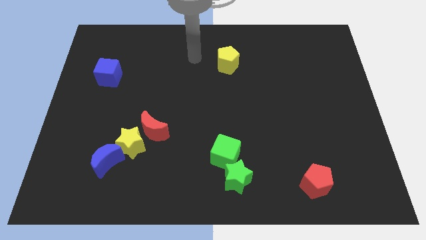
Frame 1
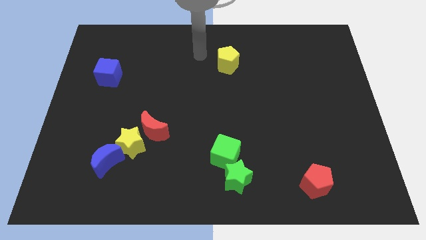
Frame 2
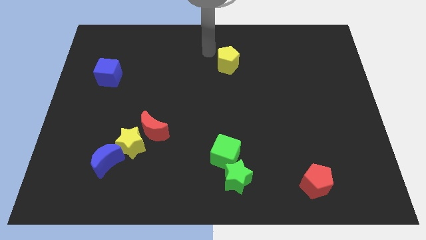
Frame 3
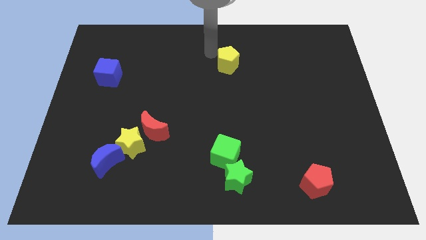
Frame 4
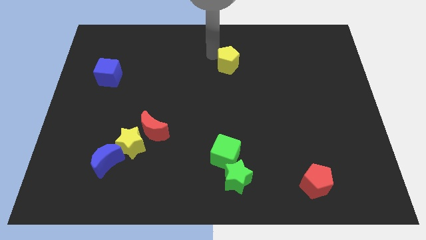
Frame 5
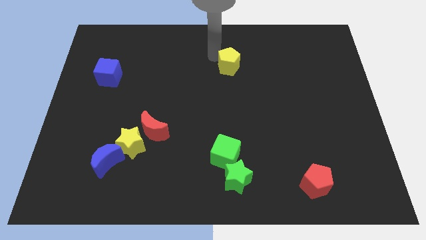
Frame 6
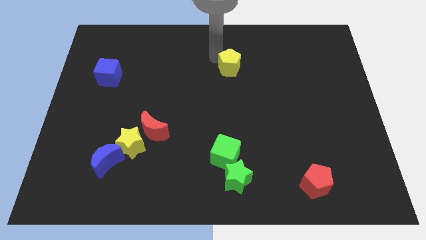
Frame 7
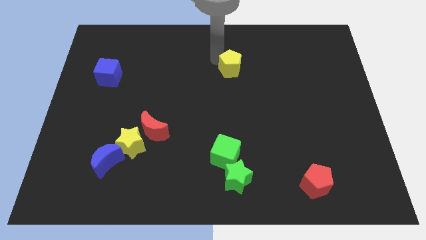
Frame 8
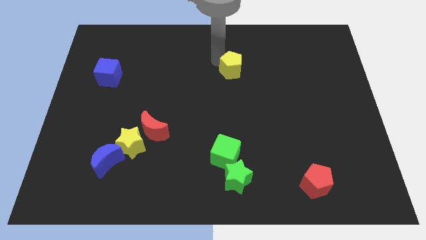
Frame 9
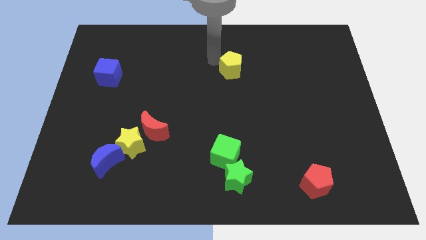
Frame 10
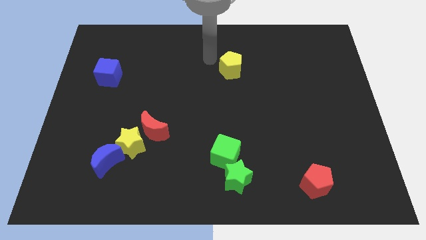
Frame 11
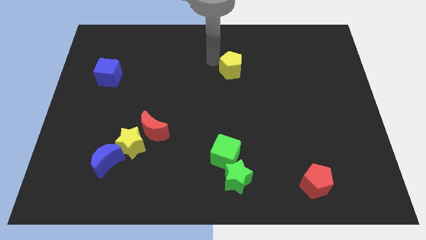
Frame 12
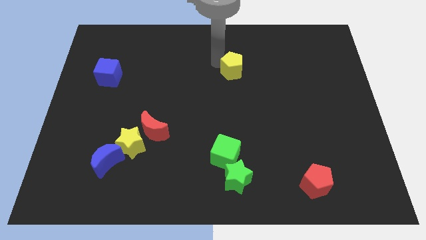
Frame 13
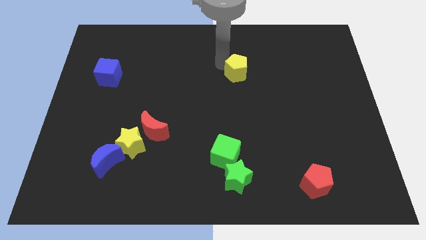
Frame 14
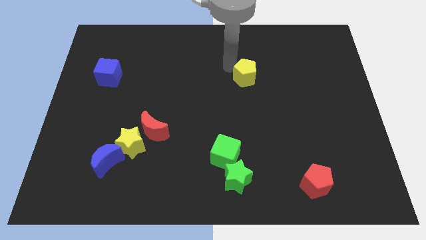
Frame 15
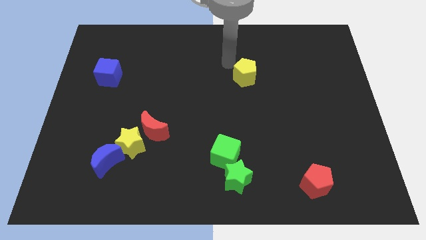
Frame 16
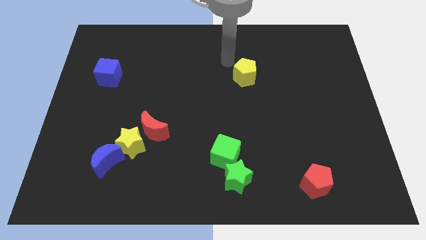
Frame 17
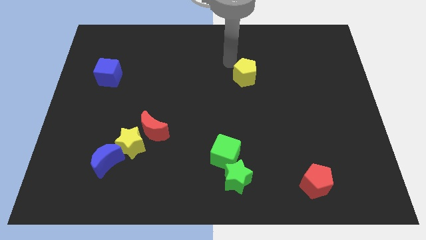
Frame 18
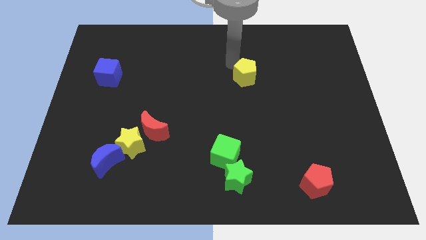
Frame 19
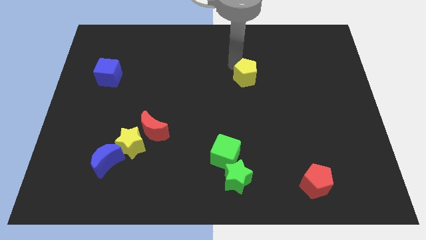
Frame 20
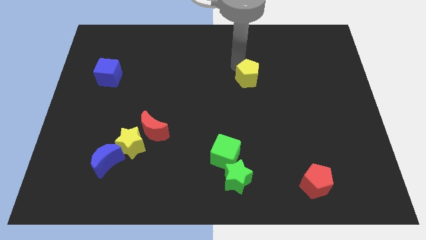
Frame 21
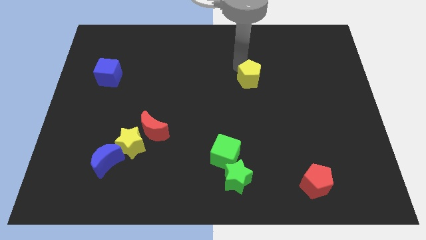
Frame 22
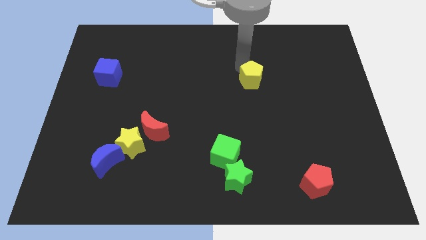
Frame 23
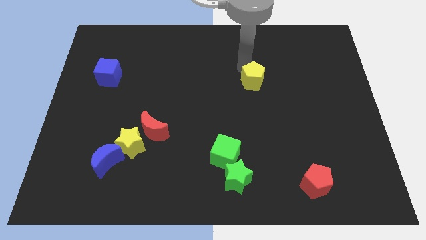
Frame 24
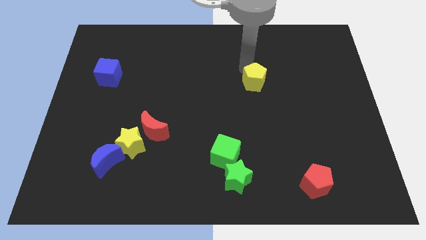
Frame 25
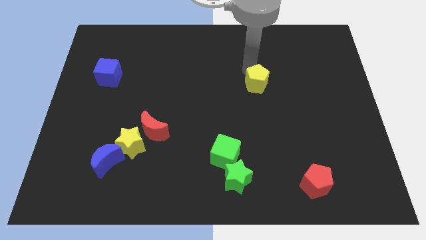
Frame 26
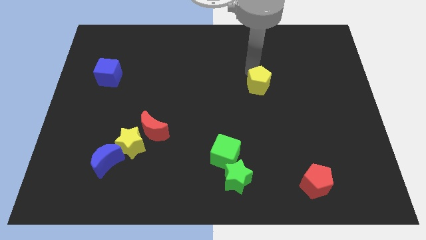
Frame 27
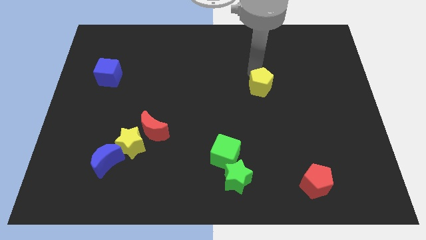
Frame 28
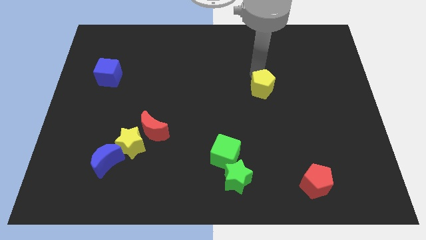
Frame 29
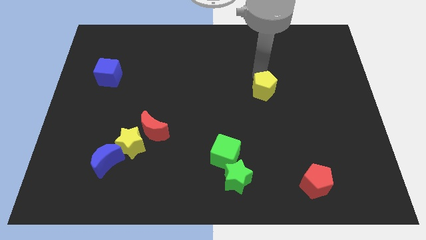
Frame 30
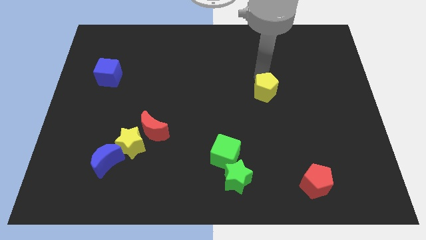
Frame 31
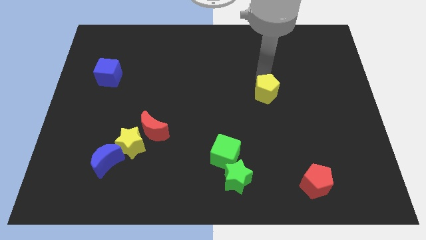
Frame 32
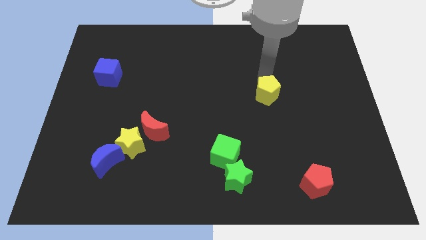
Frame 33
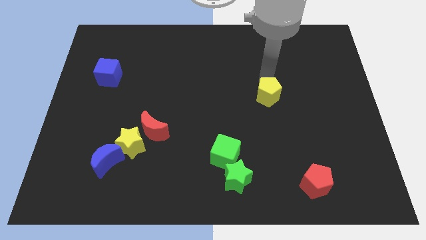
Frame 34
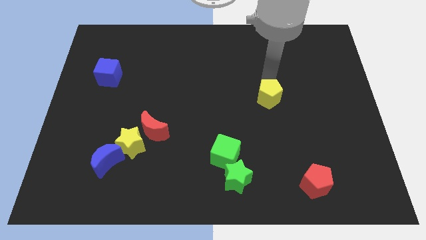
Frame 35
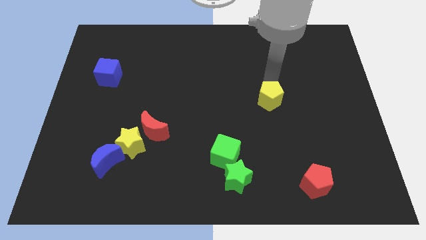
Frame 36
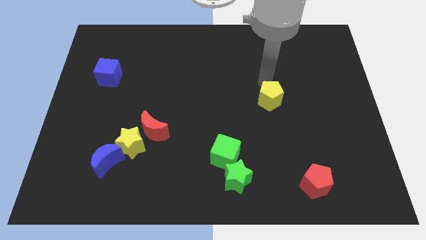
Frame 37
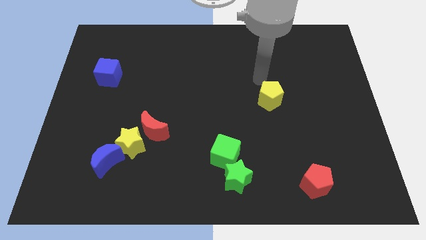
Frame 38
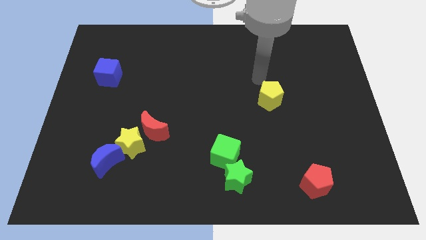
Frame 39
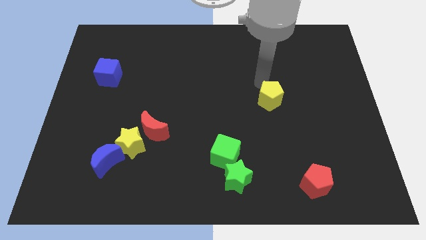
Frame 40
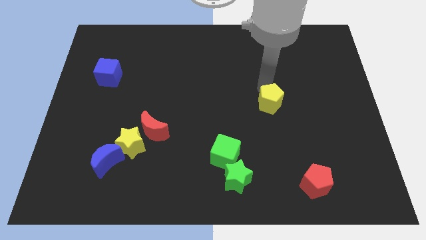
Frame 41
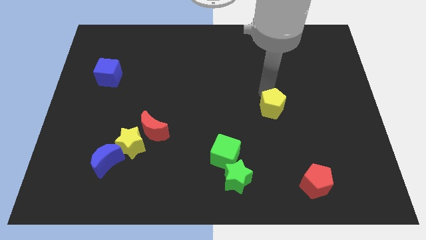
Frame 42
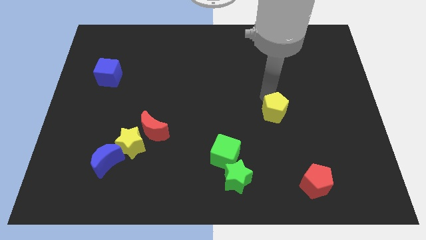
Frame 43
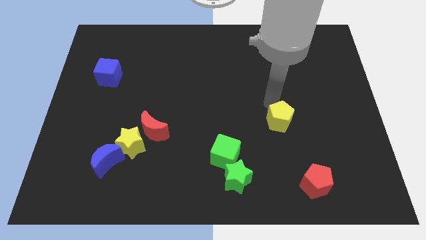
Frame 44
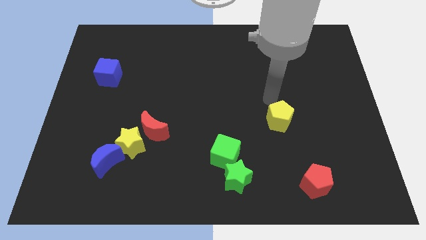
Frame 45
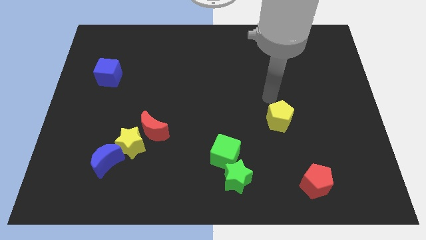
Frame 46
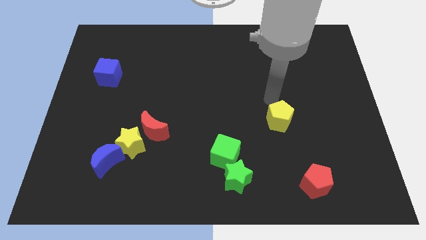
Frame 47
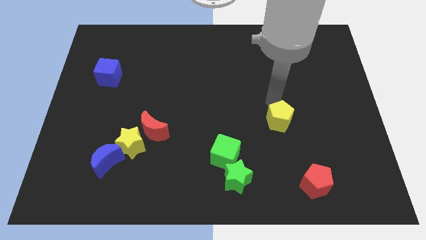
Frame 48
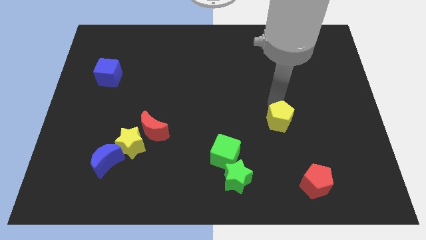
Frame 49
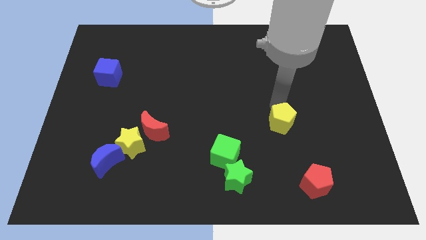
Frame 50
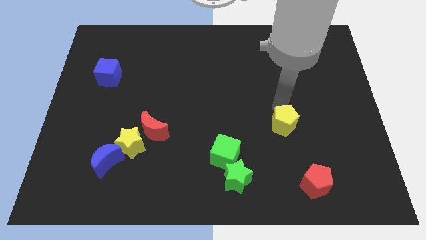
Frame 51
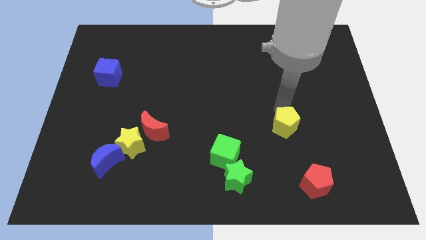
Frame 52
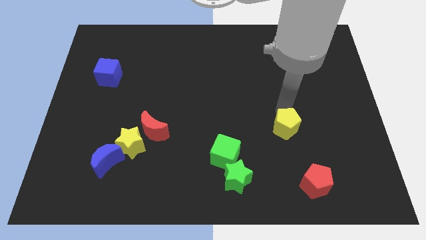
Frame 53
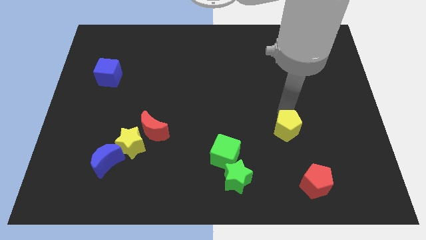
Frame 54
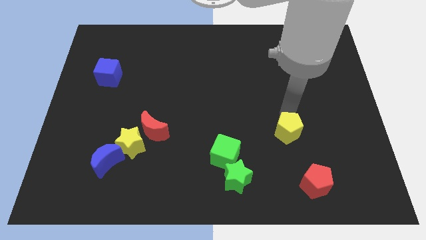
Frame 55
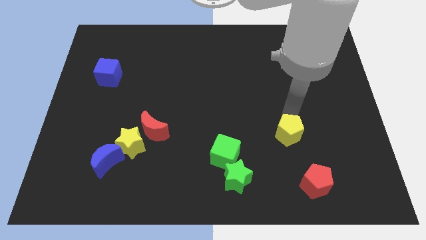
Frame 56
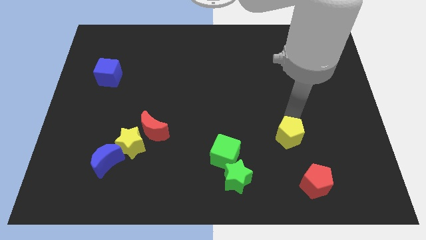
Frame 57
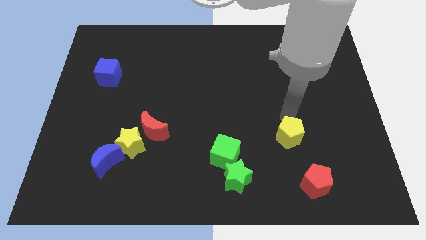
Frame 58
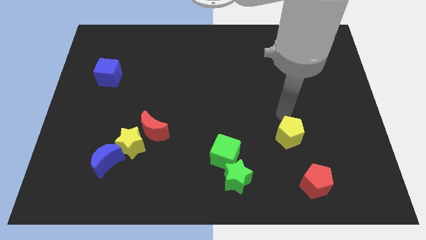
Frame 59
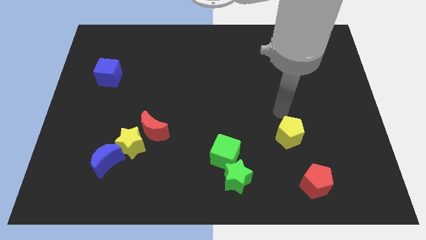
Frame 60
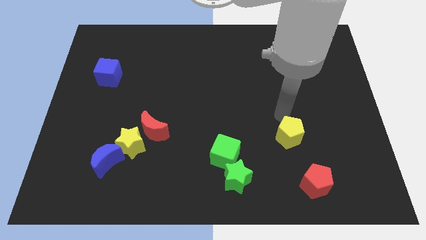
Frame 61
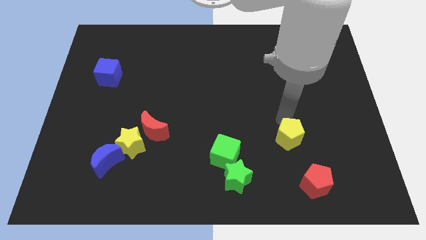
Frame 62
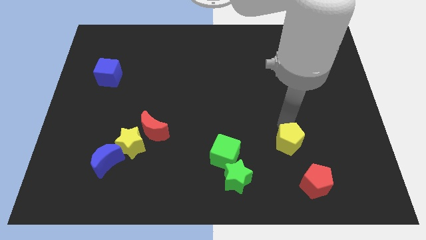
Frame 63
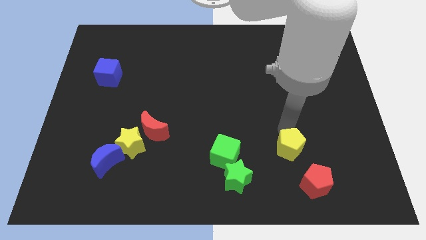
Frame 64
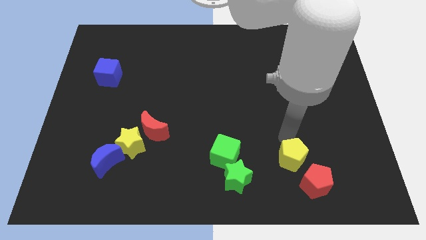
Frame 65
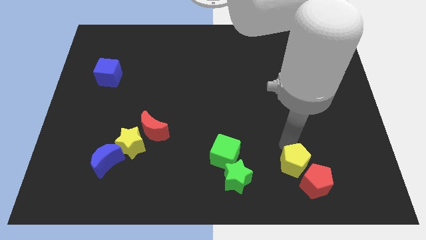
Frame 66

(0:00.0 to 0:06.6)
put the yellow pentagon next to the red pentagon

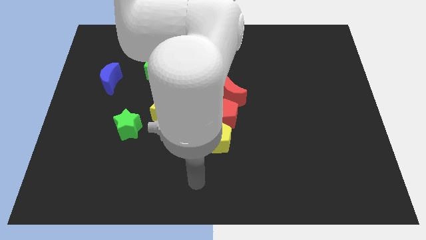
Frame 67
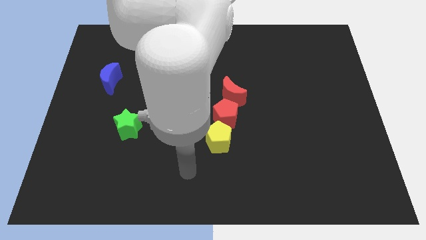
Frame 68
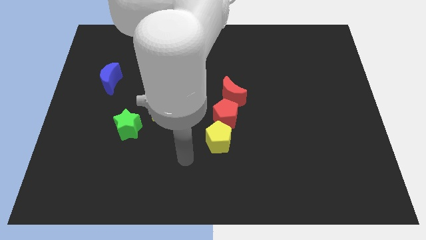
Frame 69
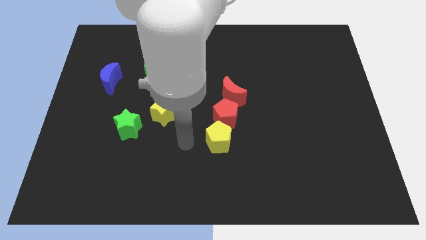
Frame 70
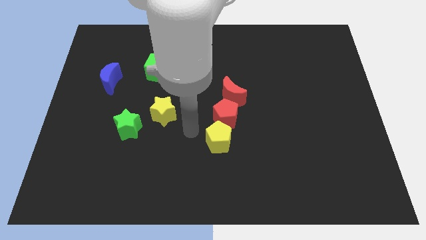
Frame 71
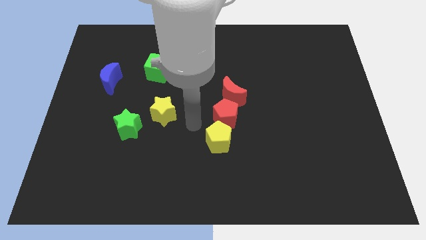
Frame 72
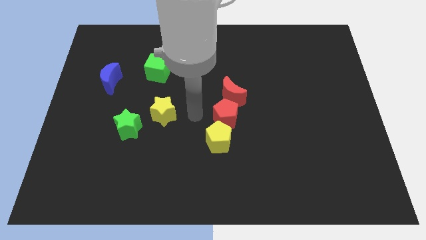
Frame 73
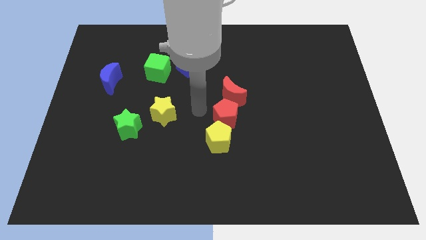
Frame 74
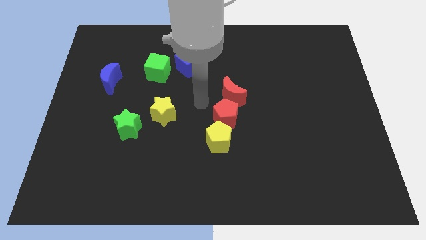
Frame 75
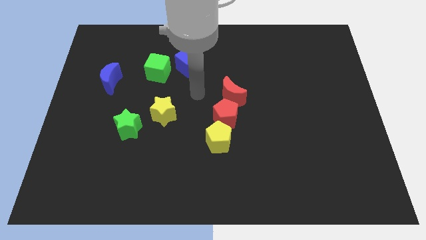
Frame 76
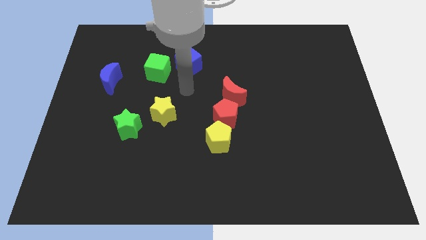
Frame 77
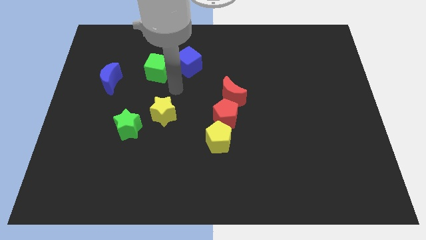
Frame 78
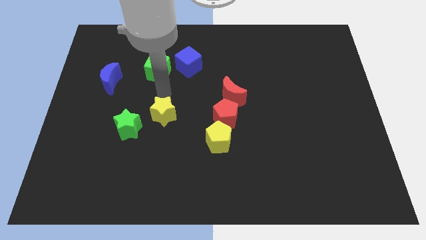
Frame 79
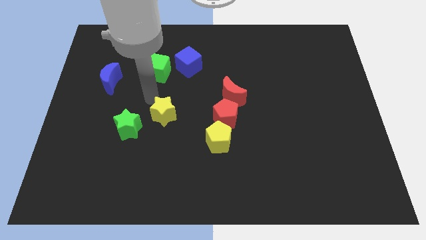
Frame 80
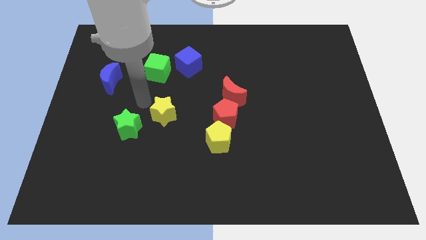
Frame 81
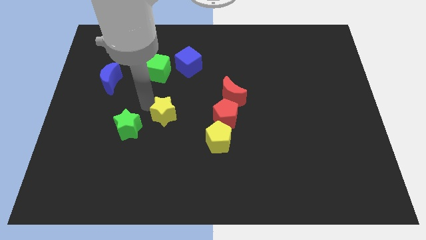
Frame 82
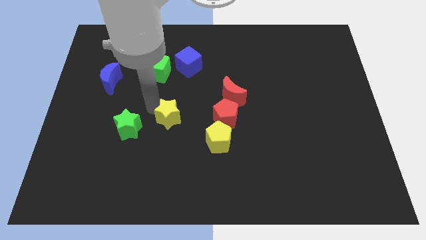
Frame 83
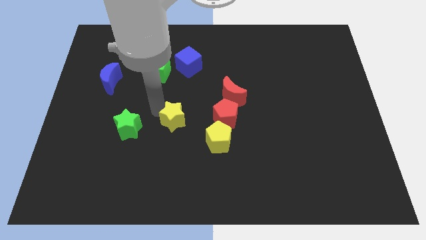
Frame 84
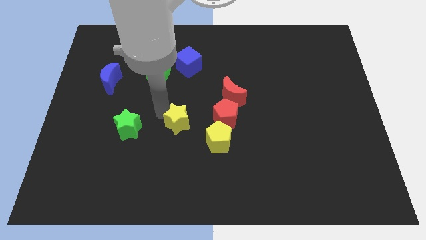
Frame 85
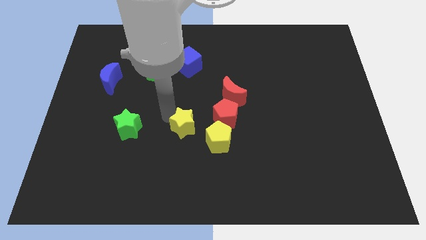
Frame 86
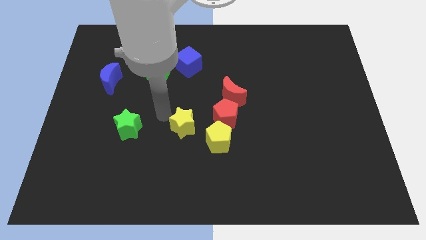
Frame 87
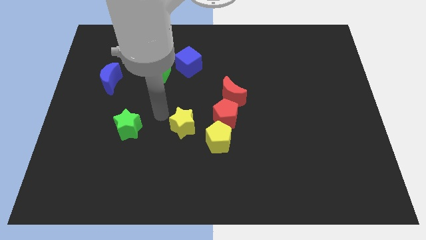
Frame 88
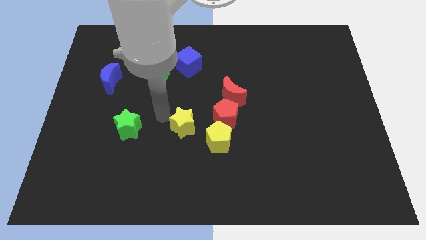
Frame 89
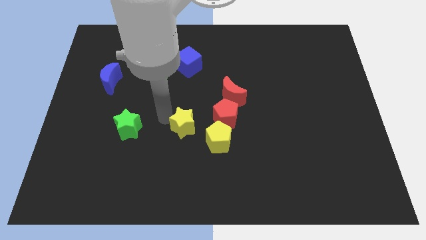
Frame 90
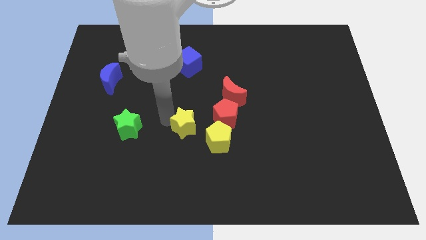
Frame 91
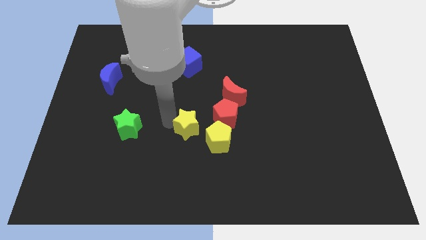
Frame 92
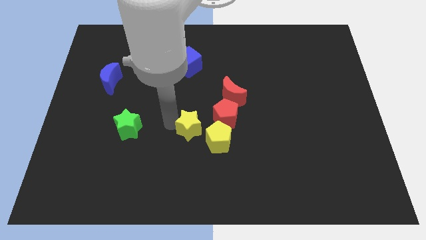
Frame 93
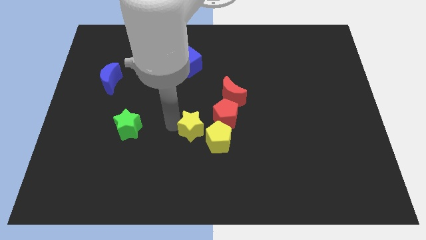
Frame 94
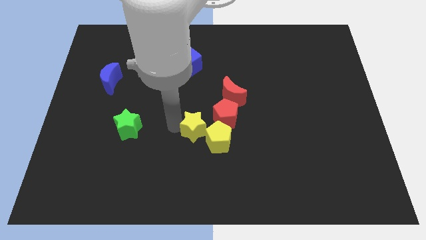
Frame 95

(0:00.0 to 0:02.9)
put the yellow star close to the yellow pentagon
